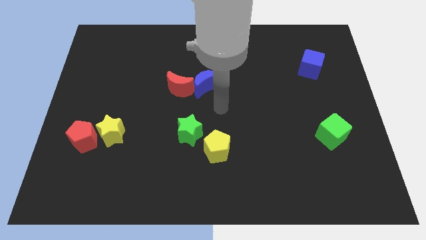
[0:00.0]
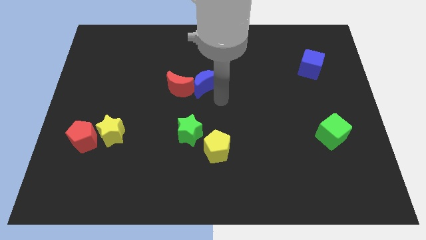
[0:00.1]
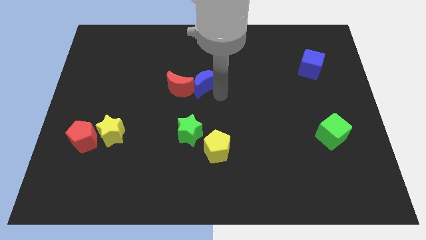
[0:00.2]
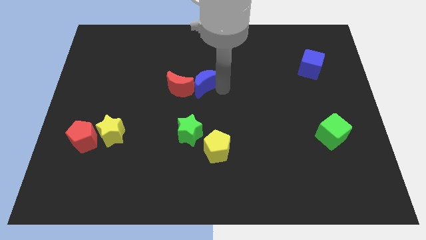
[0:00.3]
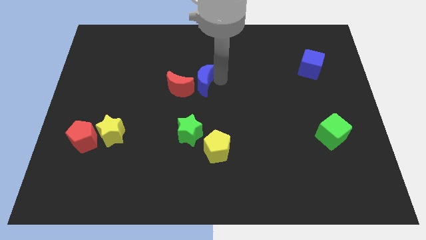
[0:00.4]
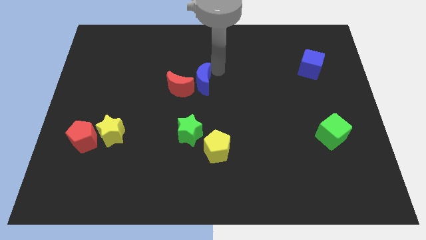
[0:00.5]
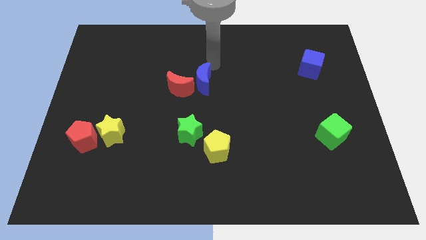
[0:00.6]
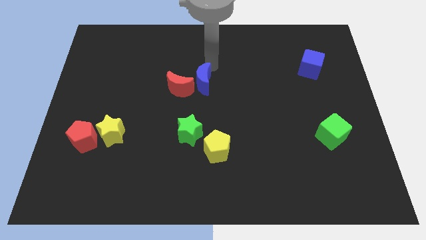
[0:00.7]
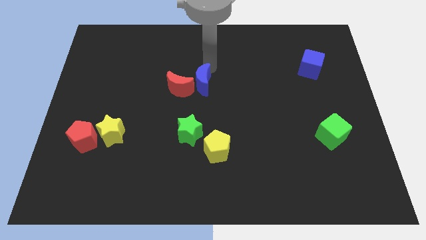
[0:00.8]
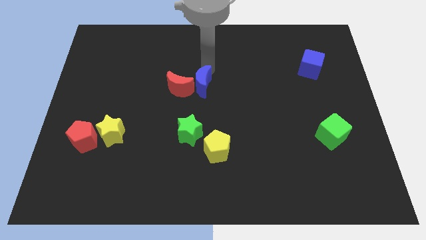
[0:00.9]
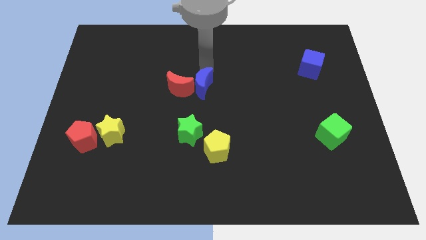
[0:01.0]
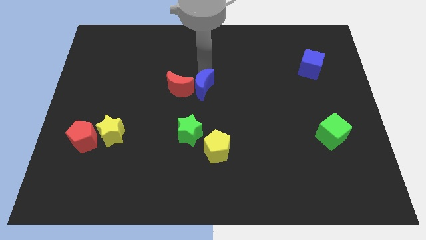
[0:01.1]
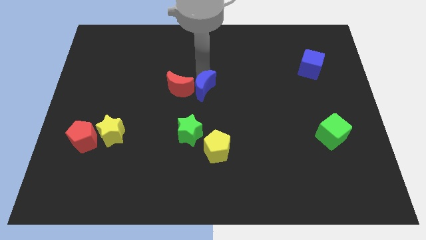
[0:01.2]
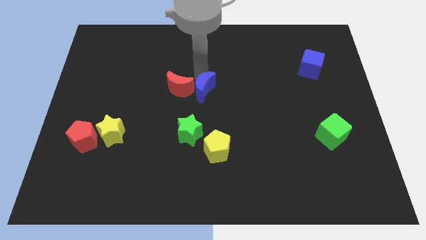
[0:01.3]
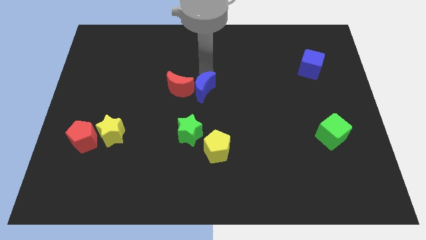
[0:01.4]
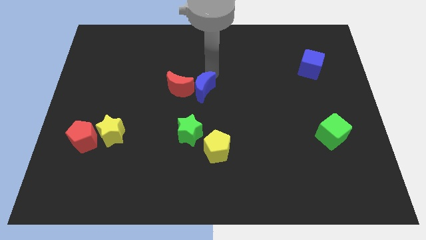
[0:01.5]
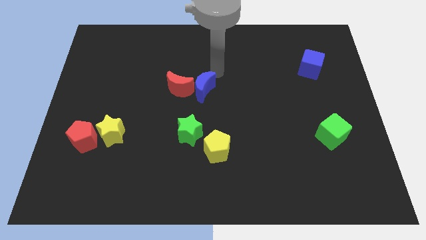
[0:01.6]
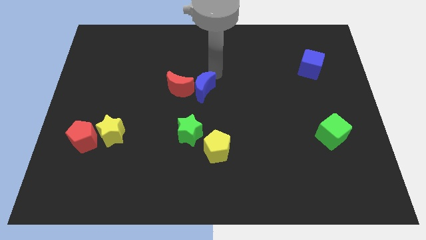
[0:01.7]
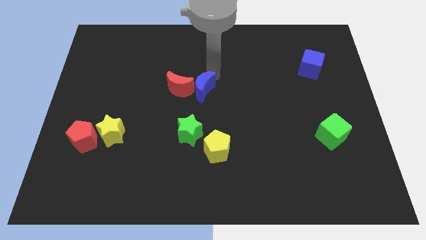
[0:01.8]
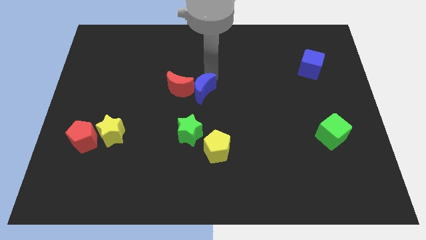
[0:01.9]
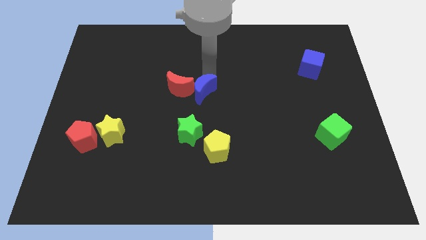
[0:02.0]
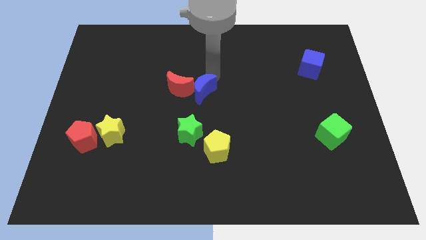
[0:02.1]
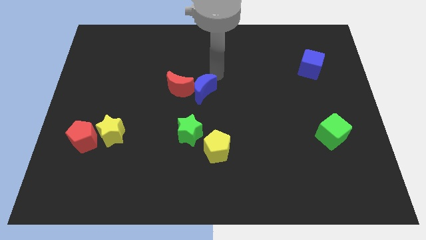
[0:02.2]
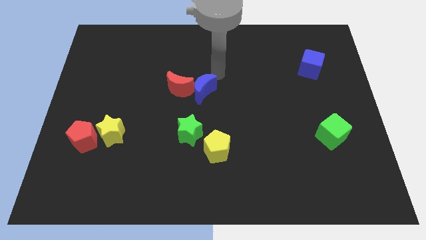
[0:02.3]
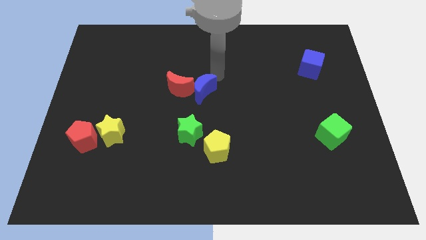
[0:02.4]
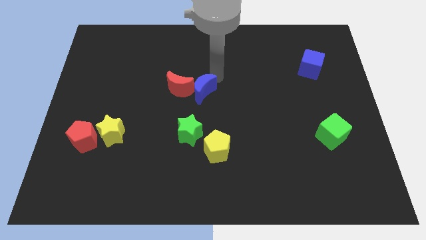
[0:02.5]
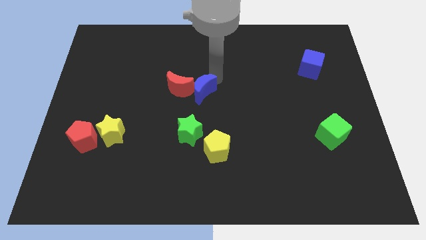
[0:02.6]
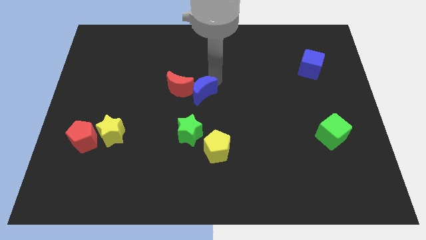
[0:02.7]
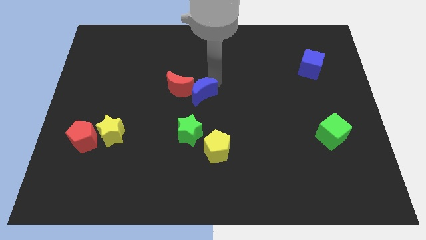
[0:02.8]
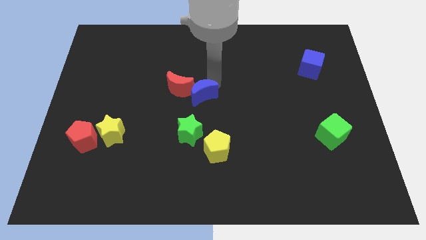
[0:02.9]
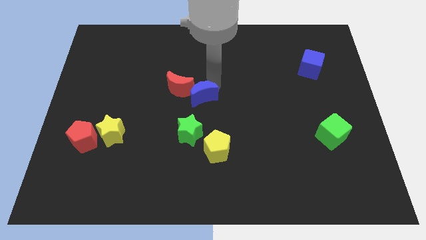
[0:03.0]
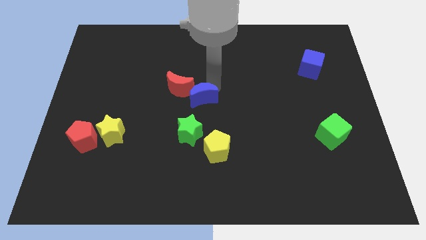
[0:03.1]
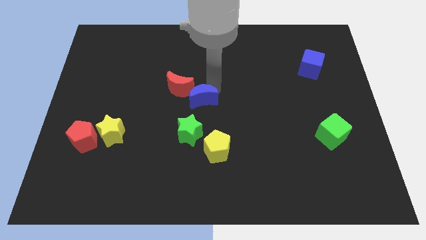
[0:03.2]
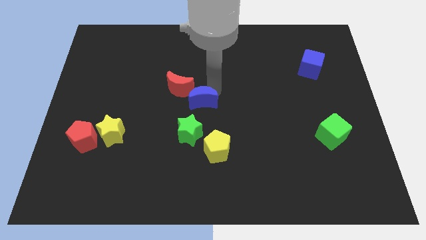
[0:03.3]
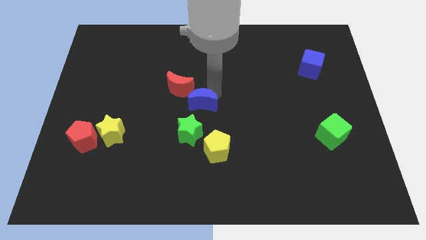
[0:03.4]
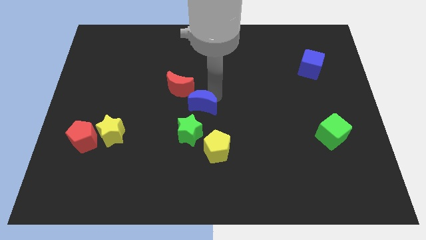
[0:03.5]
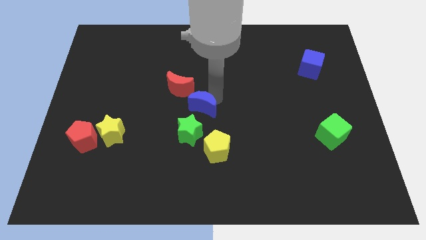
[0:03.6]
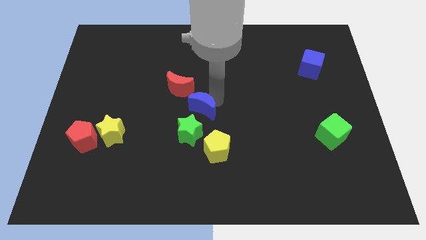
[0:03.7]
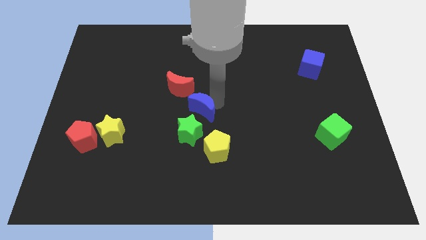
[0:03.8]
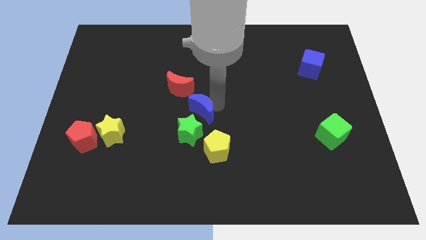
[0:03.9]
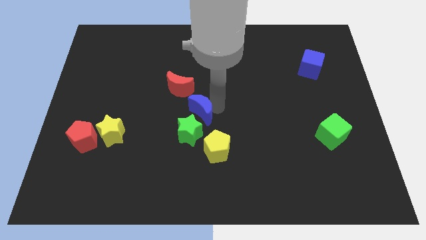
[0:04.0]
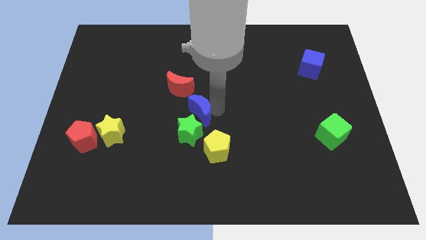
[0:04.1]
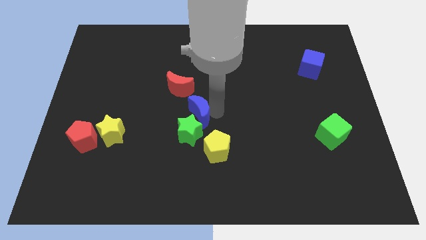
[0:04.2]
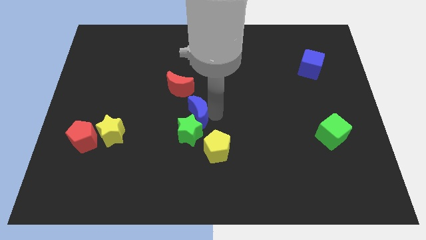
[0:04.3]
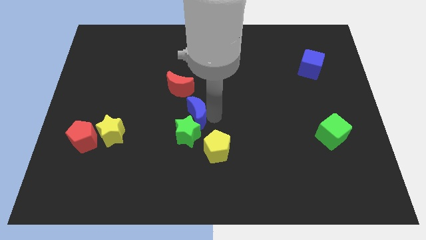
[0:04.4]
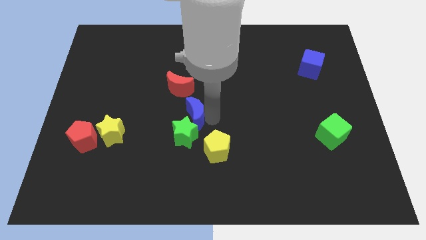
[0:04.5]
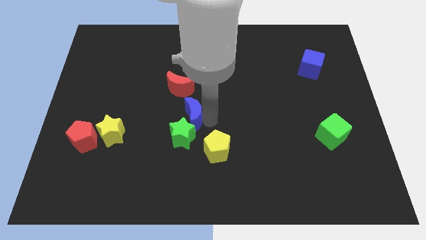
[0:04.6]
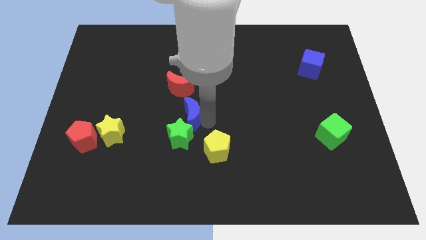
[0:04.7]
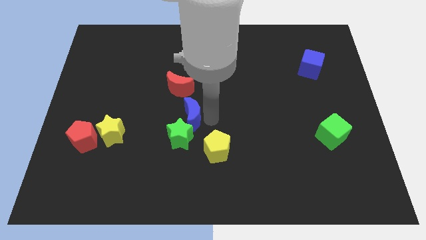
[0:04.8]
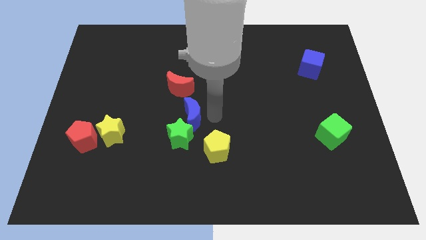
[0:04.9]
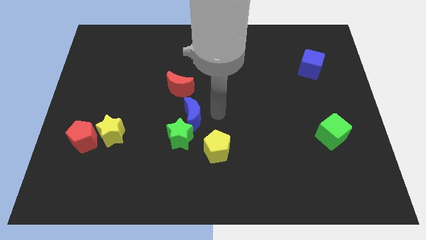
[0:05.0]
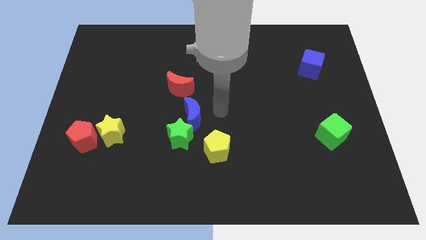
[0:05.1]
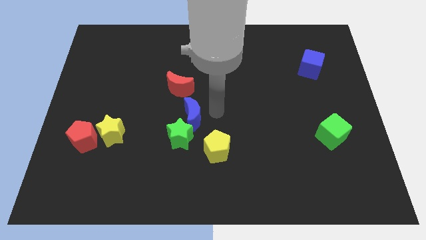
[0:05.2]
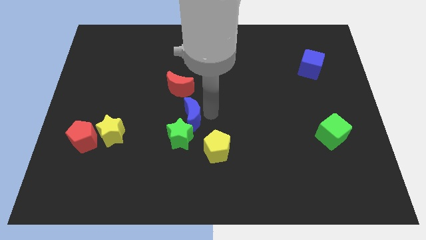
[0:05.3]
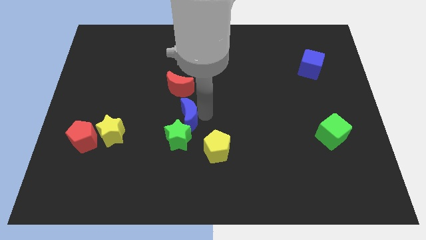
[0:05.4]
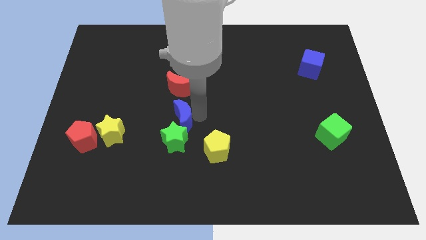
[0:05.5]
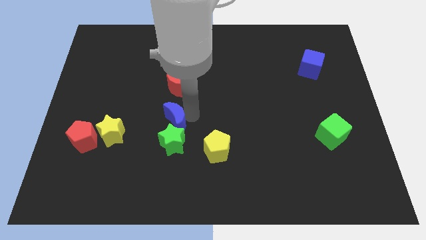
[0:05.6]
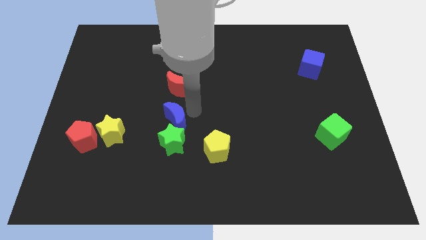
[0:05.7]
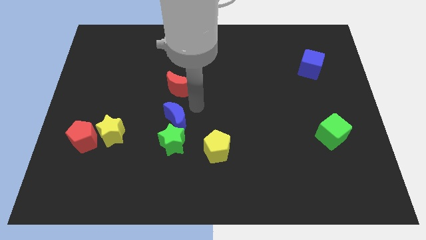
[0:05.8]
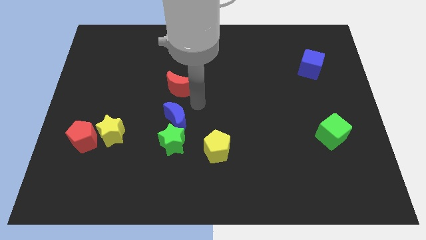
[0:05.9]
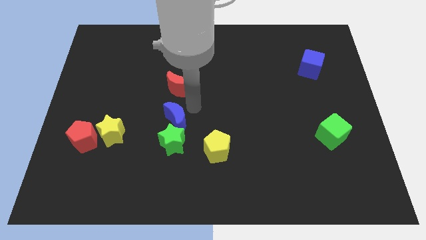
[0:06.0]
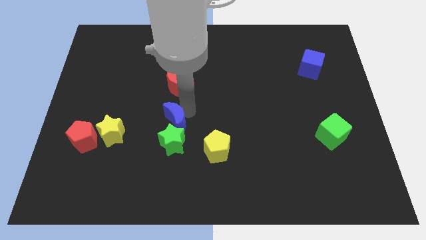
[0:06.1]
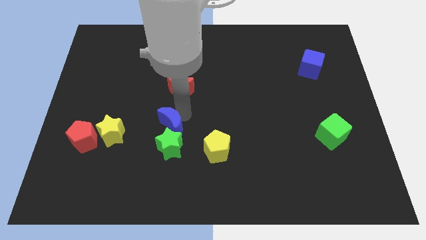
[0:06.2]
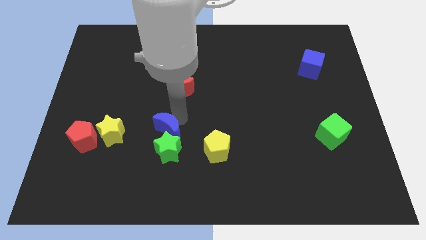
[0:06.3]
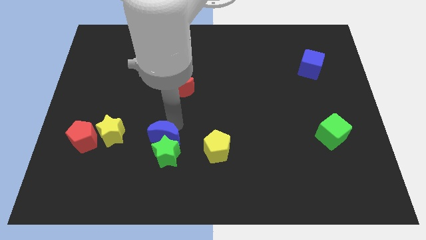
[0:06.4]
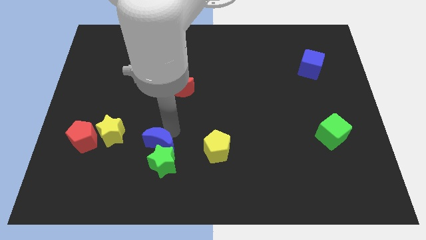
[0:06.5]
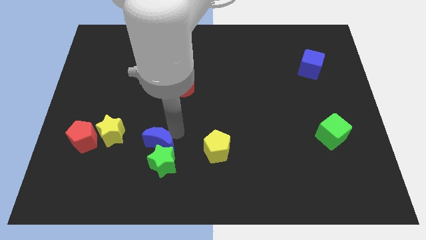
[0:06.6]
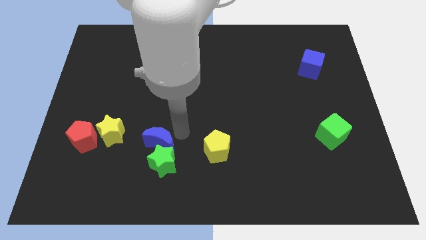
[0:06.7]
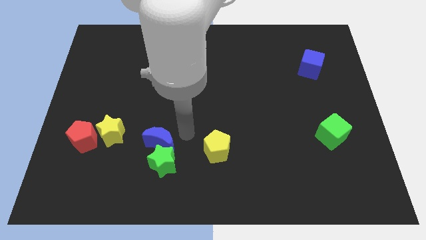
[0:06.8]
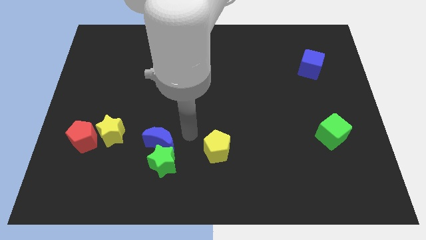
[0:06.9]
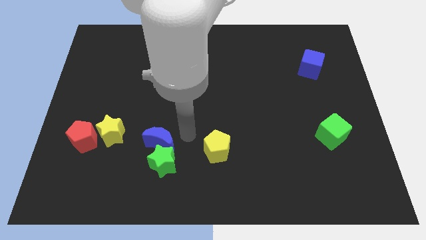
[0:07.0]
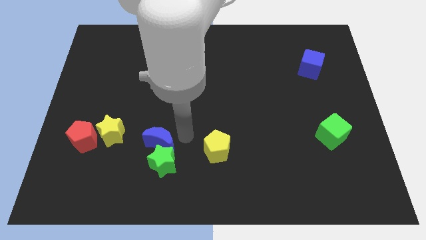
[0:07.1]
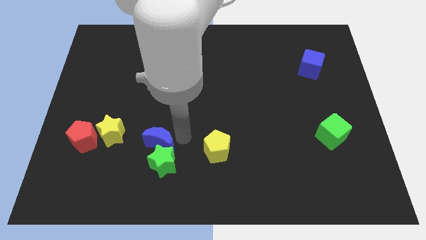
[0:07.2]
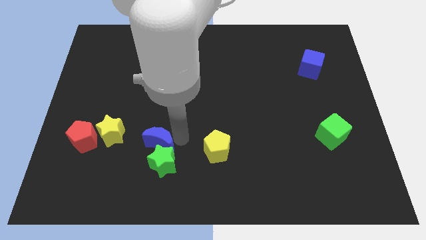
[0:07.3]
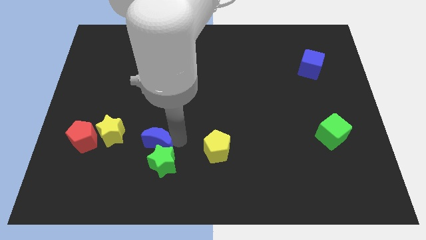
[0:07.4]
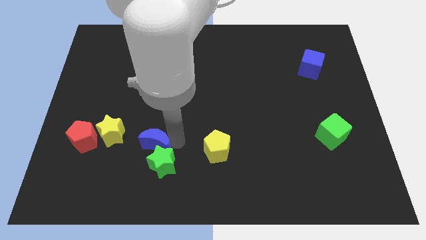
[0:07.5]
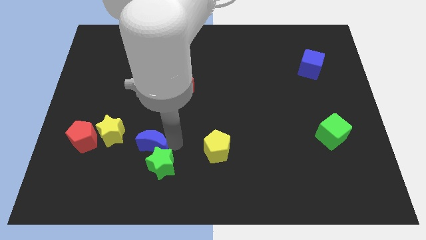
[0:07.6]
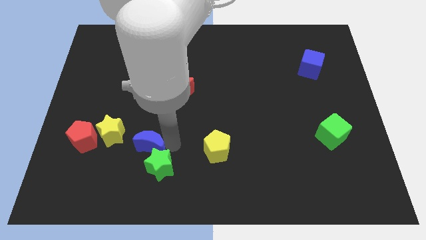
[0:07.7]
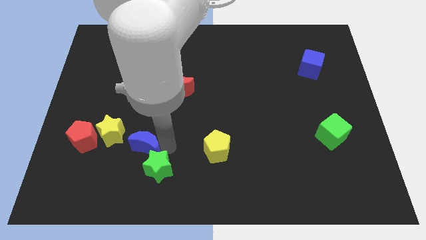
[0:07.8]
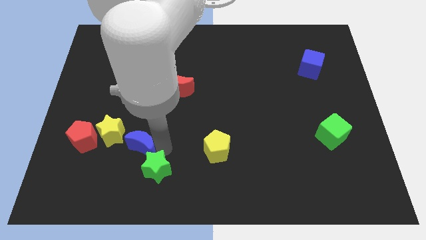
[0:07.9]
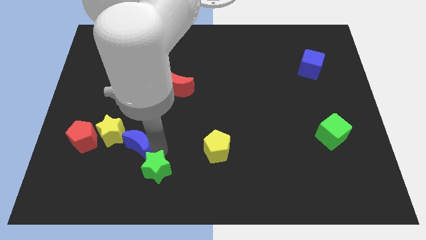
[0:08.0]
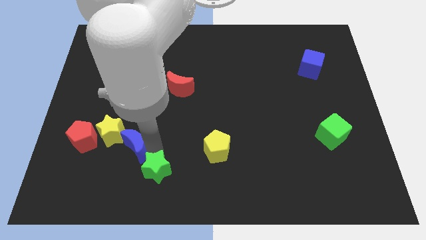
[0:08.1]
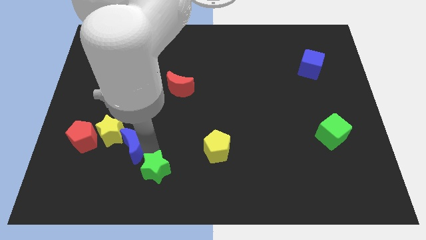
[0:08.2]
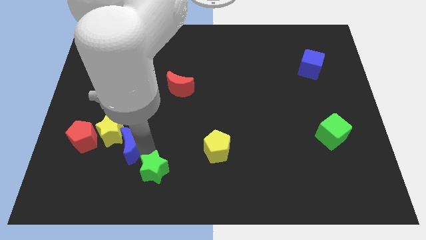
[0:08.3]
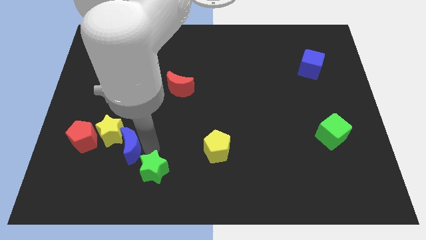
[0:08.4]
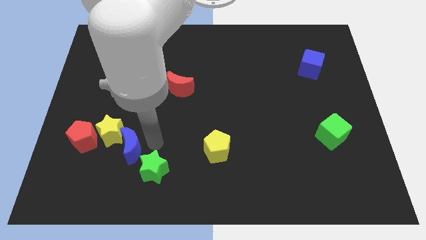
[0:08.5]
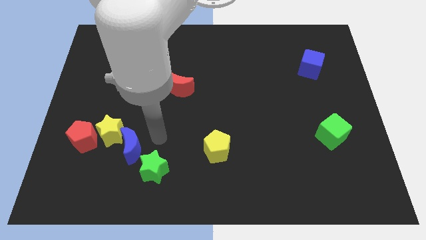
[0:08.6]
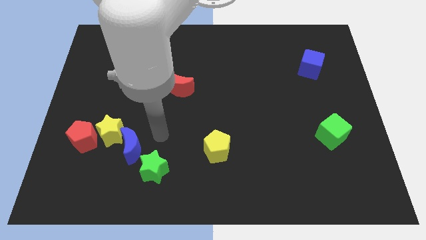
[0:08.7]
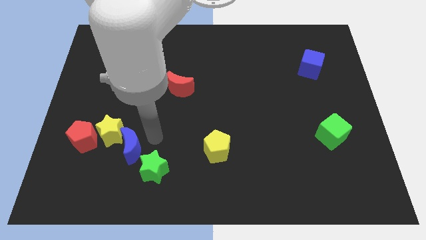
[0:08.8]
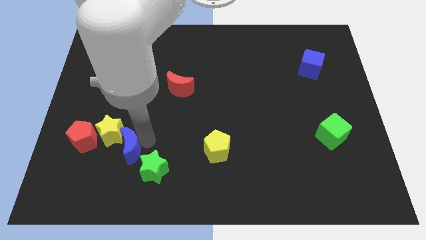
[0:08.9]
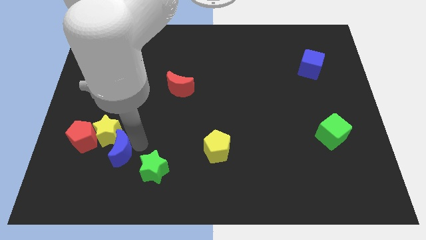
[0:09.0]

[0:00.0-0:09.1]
put the blue moon to the bottom right side of the red pentagon

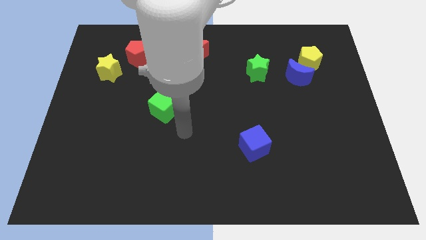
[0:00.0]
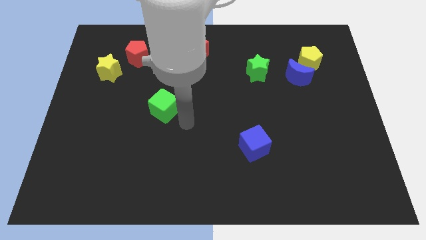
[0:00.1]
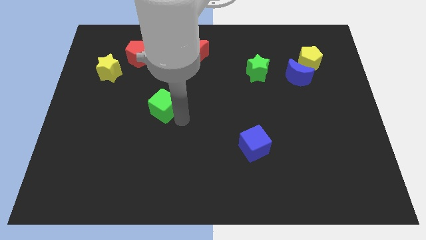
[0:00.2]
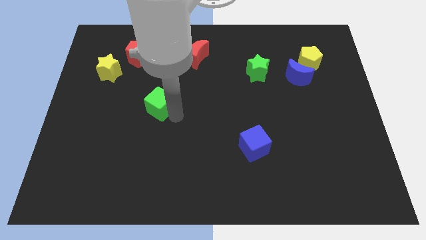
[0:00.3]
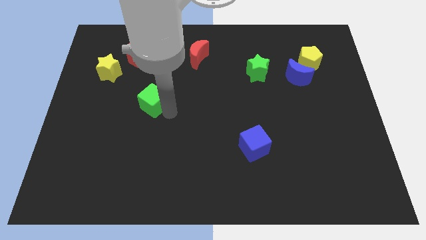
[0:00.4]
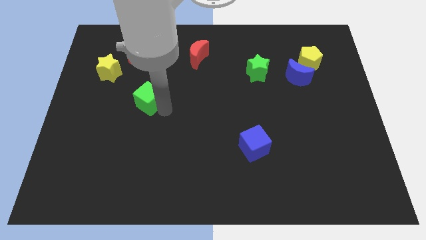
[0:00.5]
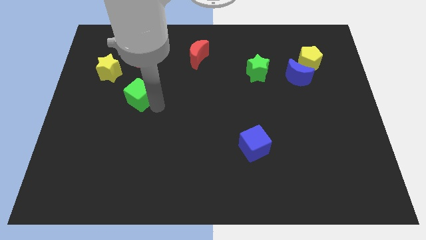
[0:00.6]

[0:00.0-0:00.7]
push the green cube to the bottom right side of the yellow star
